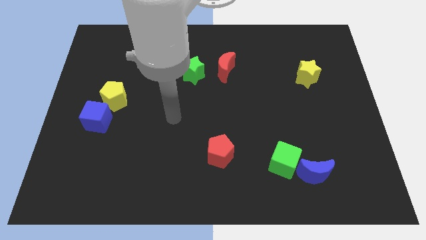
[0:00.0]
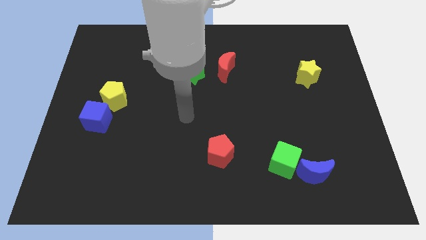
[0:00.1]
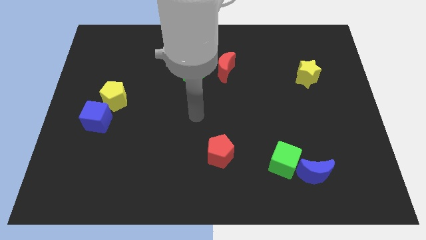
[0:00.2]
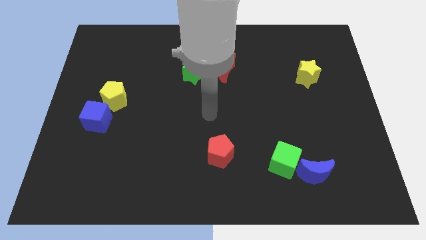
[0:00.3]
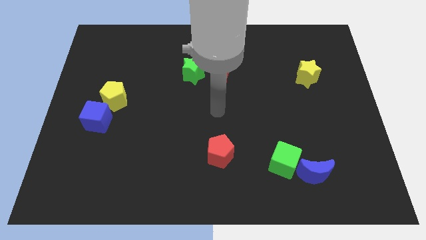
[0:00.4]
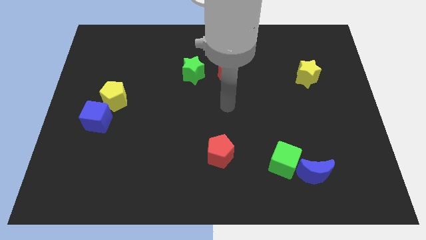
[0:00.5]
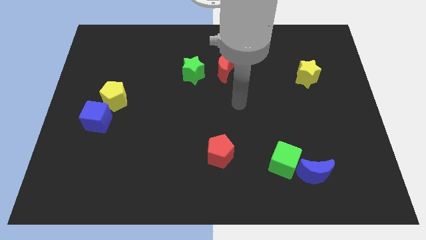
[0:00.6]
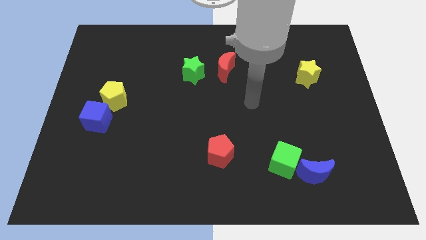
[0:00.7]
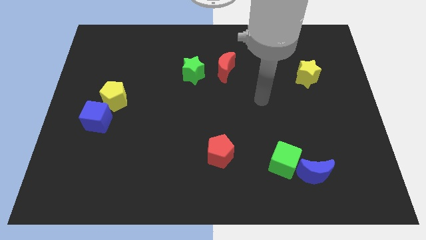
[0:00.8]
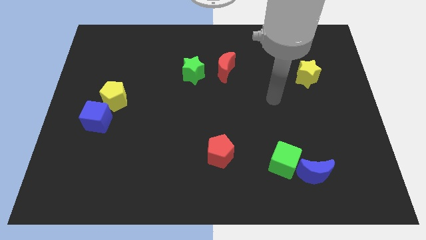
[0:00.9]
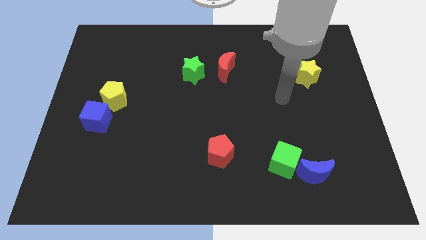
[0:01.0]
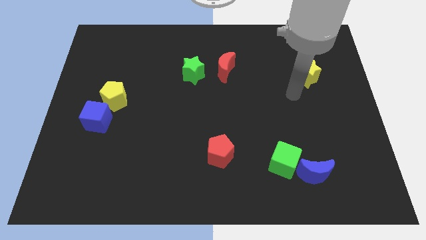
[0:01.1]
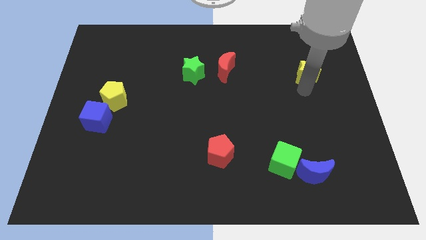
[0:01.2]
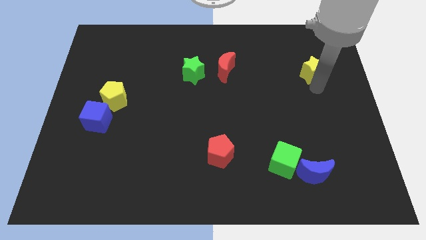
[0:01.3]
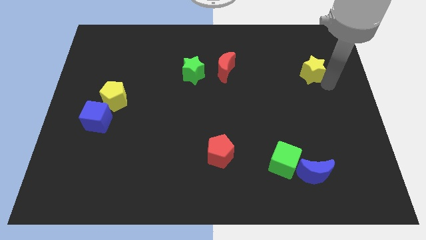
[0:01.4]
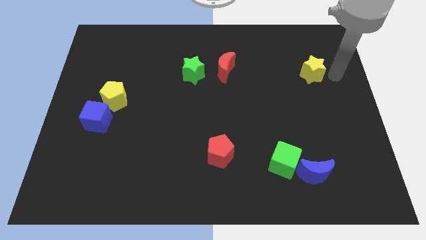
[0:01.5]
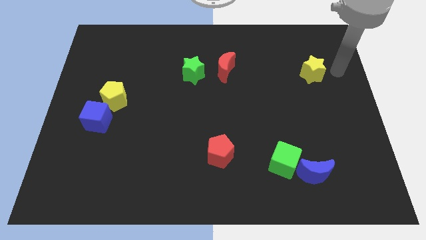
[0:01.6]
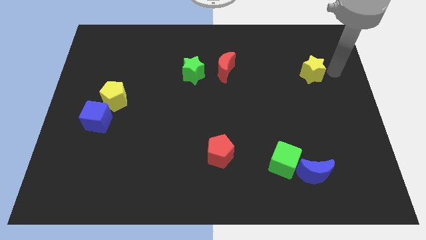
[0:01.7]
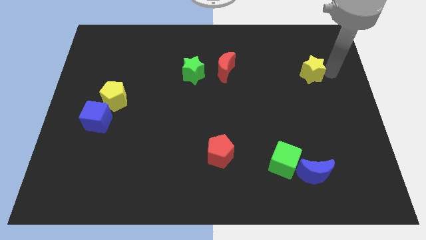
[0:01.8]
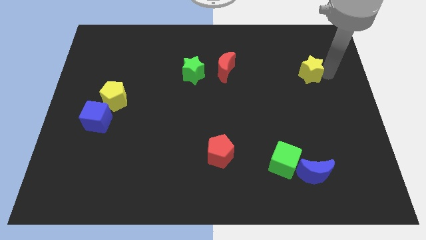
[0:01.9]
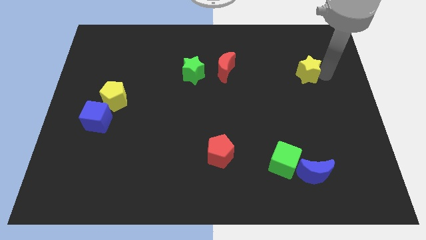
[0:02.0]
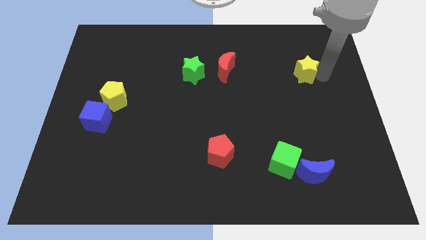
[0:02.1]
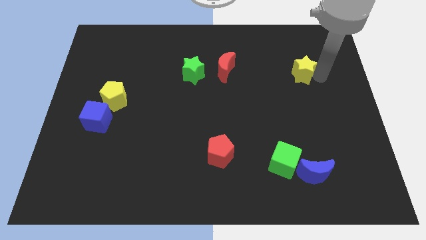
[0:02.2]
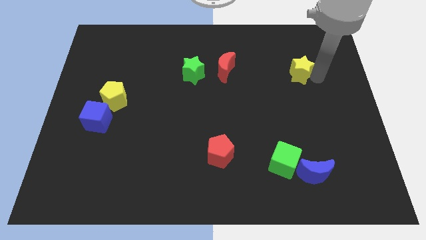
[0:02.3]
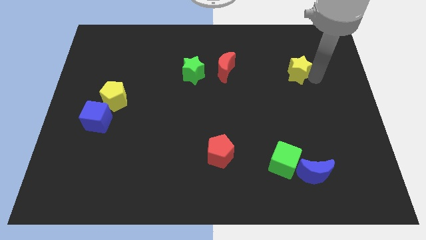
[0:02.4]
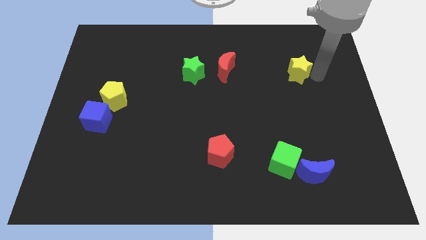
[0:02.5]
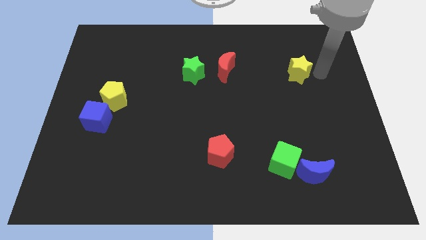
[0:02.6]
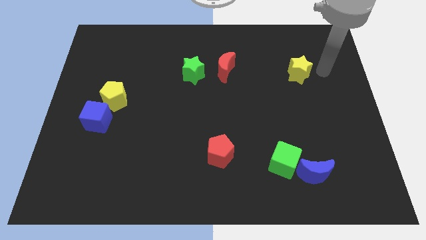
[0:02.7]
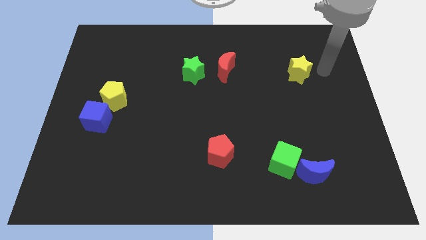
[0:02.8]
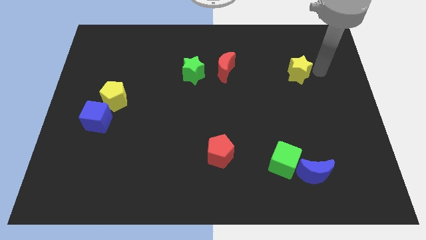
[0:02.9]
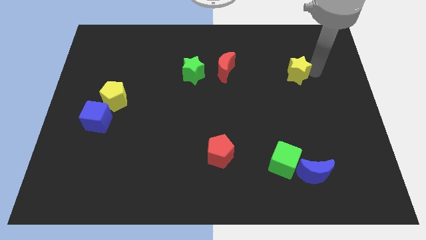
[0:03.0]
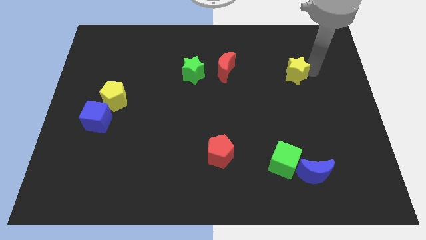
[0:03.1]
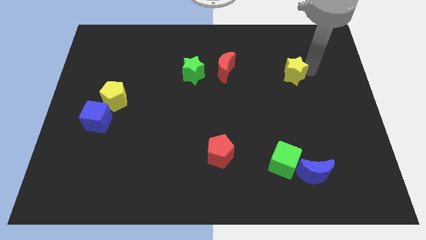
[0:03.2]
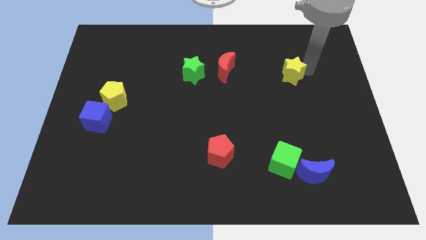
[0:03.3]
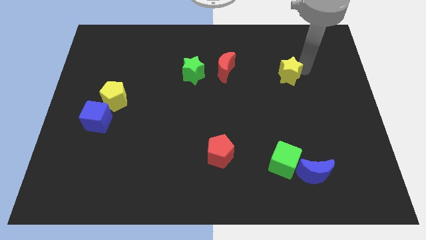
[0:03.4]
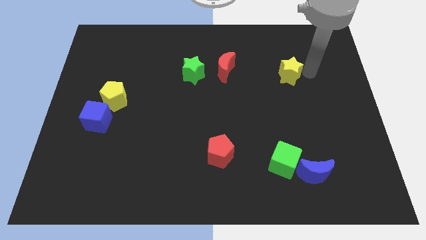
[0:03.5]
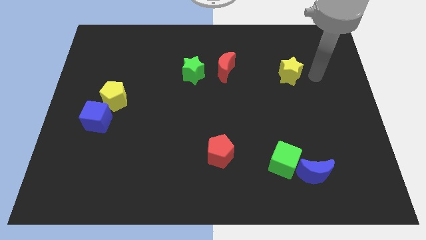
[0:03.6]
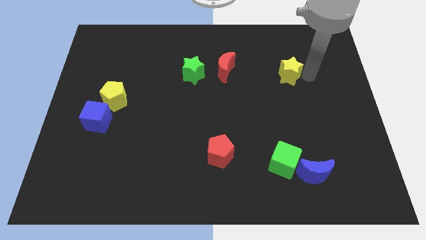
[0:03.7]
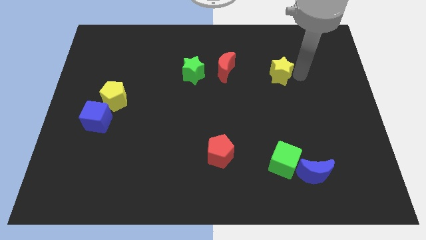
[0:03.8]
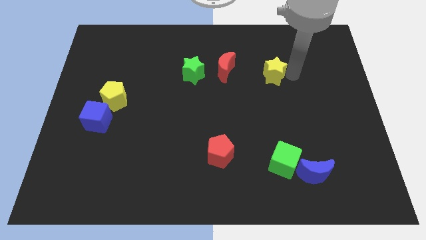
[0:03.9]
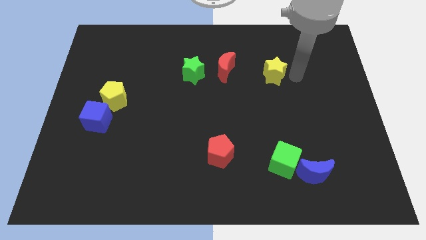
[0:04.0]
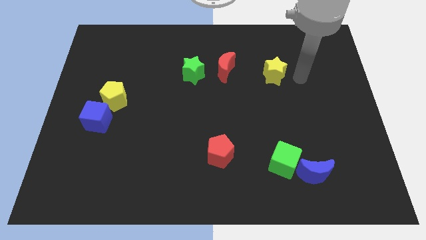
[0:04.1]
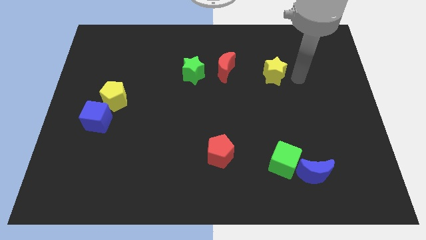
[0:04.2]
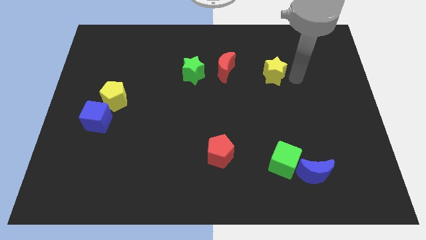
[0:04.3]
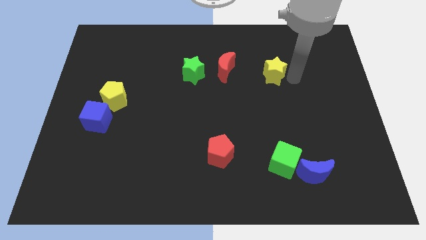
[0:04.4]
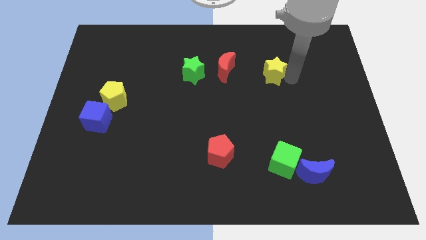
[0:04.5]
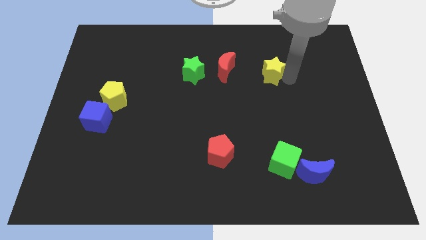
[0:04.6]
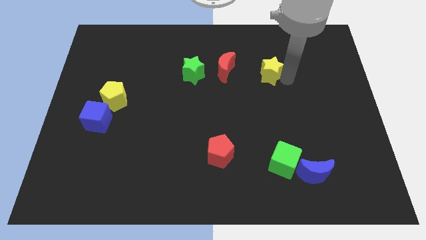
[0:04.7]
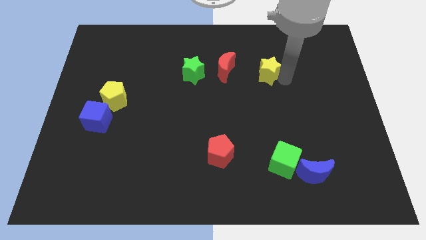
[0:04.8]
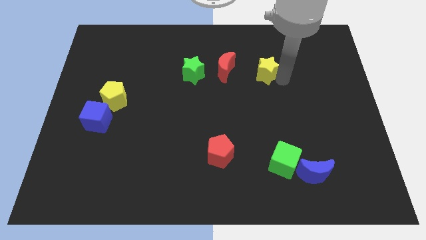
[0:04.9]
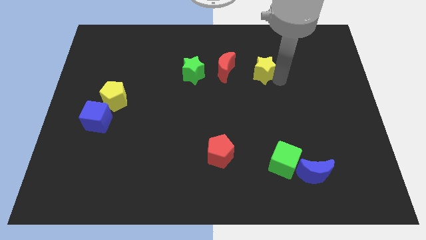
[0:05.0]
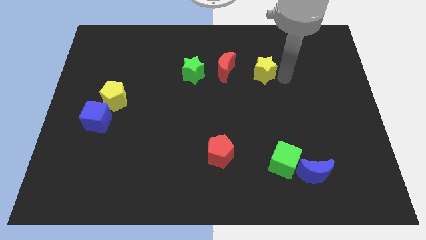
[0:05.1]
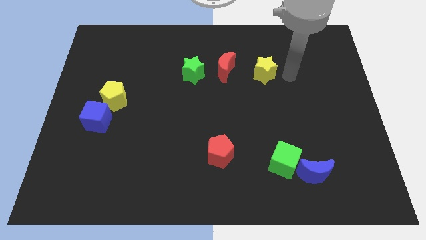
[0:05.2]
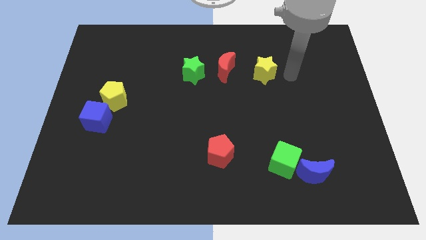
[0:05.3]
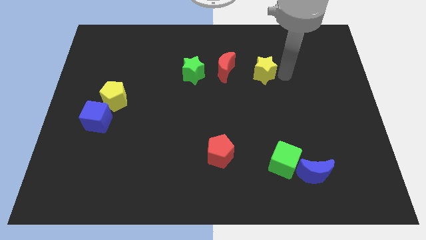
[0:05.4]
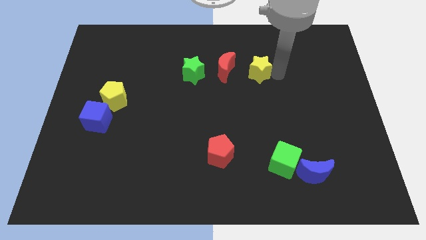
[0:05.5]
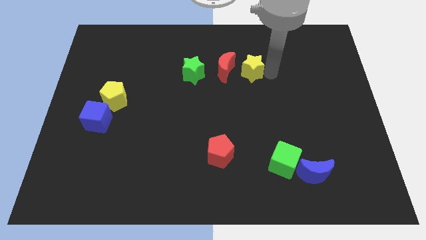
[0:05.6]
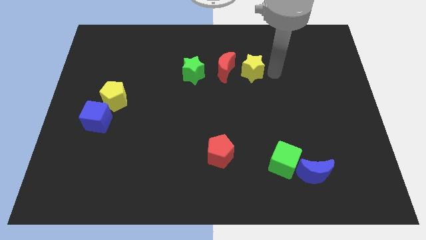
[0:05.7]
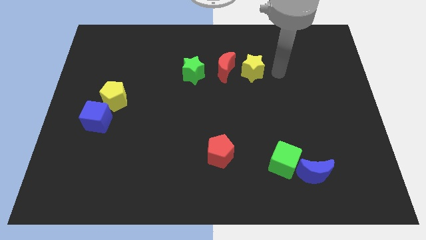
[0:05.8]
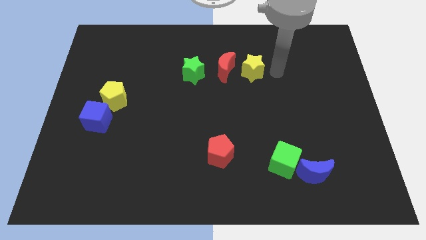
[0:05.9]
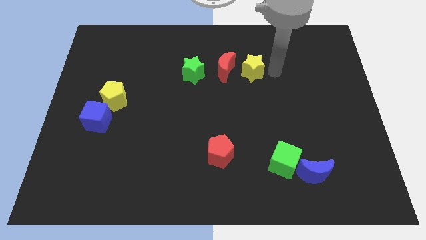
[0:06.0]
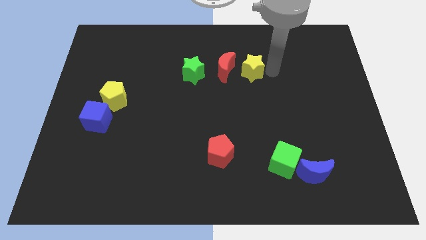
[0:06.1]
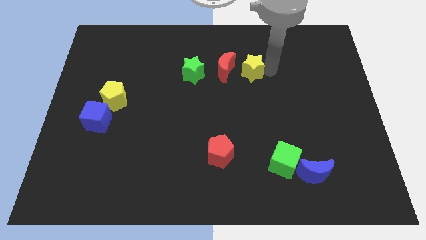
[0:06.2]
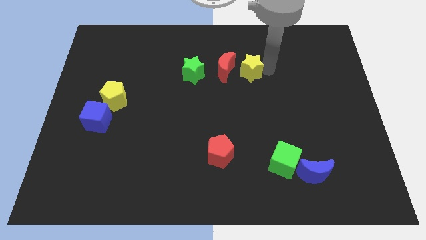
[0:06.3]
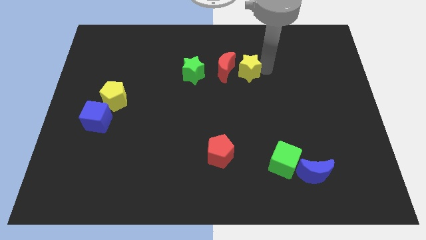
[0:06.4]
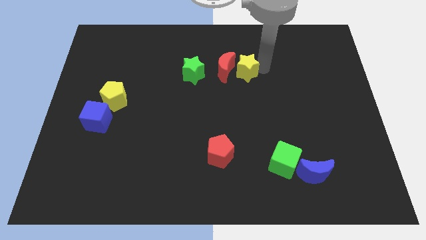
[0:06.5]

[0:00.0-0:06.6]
put the yellow star to the red moon
